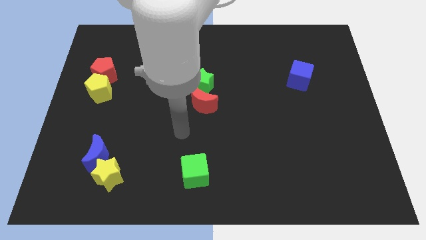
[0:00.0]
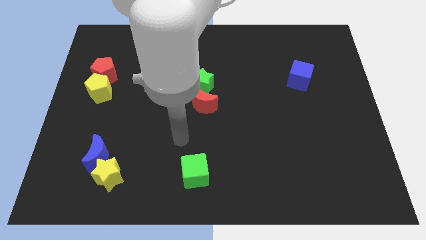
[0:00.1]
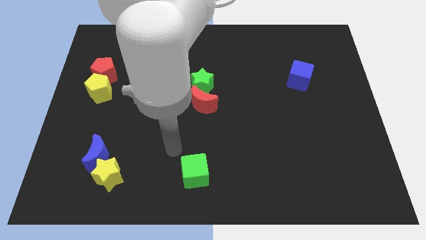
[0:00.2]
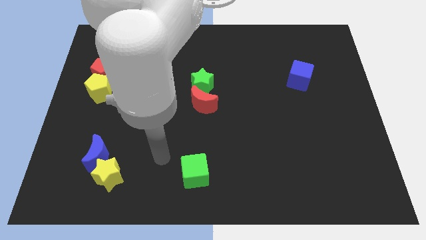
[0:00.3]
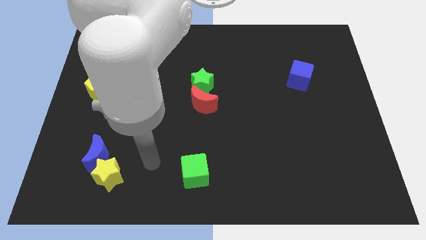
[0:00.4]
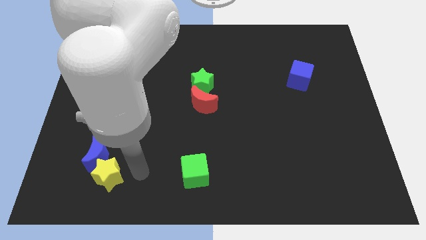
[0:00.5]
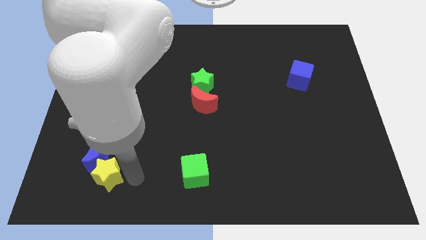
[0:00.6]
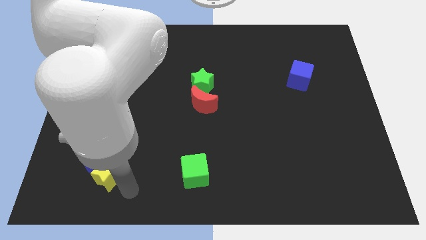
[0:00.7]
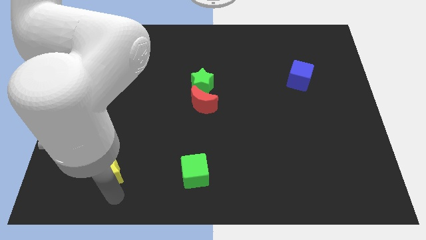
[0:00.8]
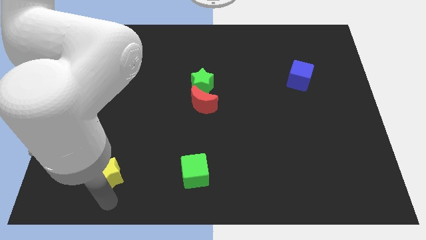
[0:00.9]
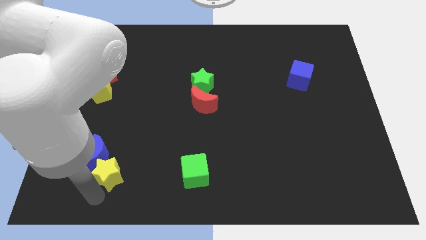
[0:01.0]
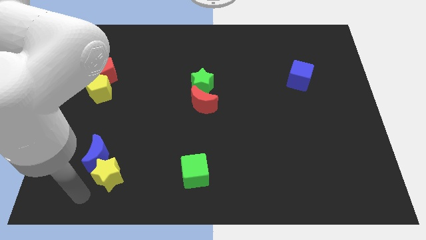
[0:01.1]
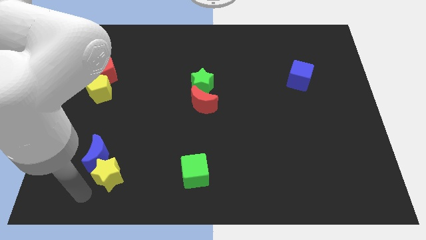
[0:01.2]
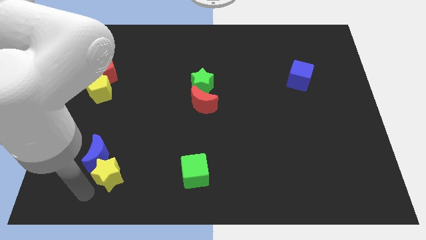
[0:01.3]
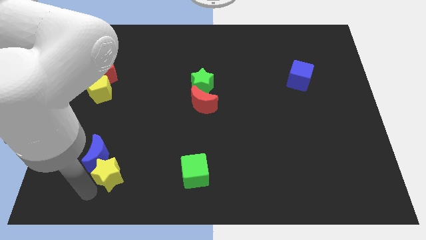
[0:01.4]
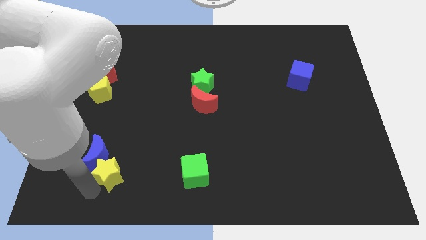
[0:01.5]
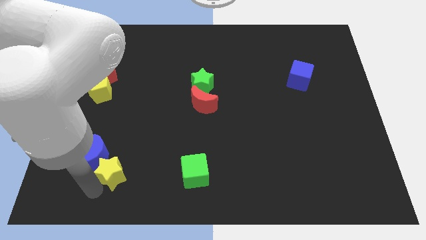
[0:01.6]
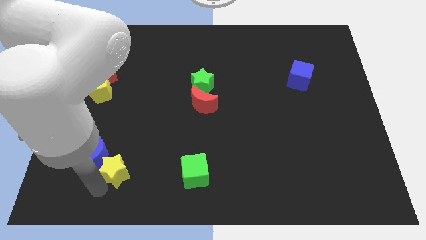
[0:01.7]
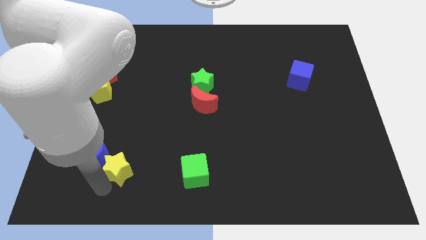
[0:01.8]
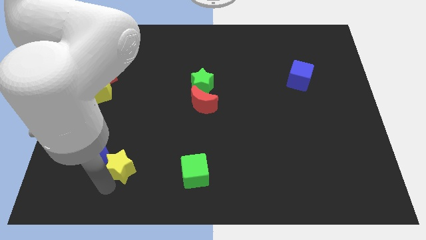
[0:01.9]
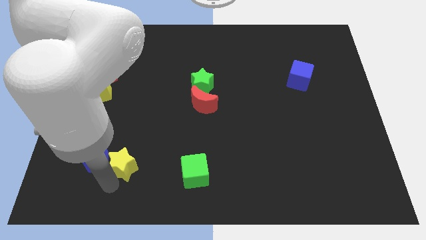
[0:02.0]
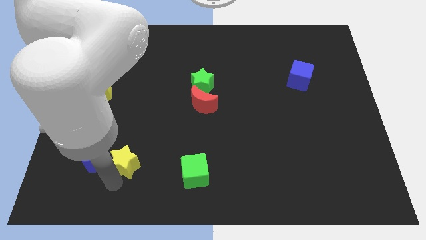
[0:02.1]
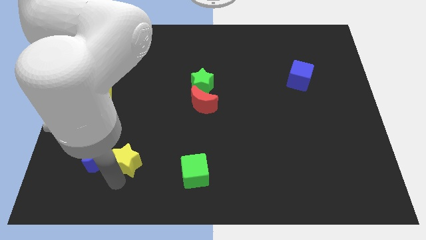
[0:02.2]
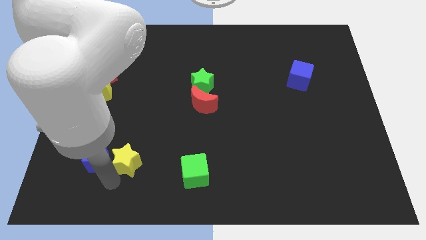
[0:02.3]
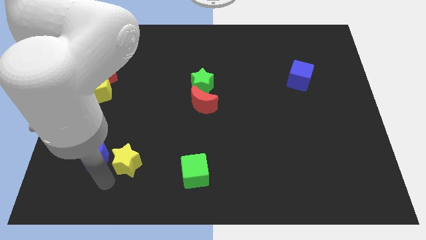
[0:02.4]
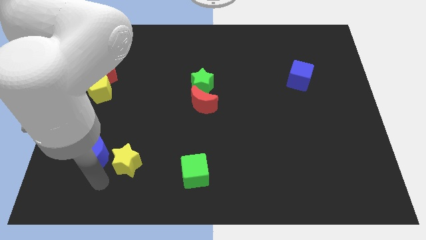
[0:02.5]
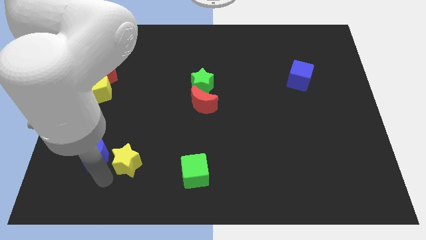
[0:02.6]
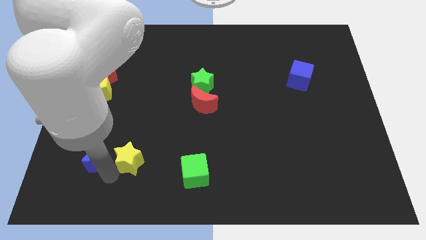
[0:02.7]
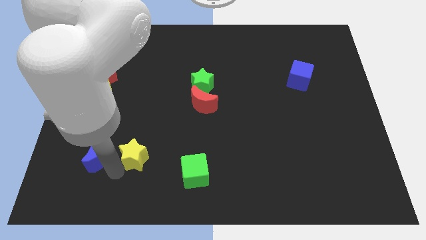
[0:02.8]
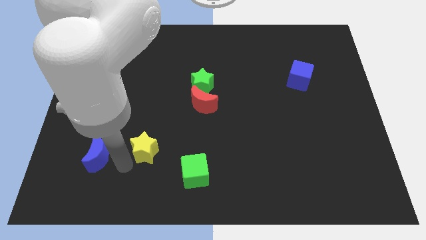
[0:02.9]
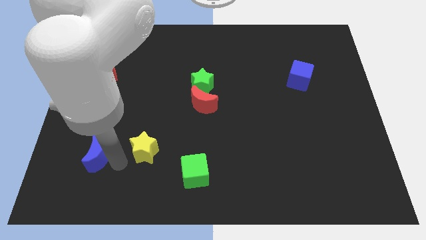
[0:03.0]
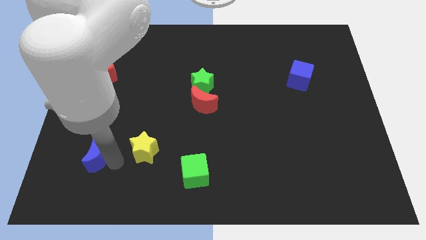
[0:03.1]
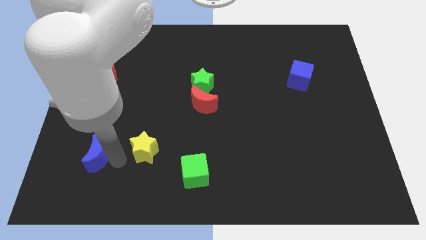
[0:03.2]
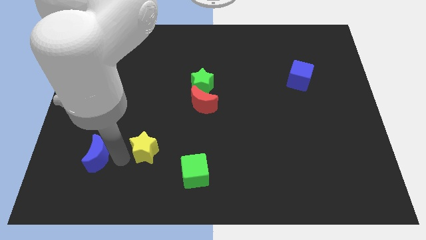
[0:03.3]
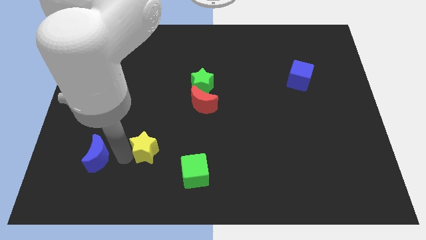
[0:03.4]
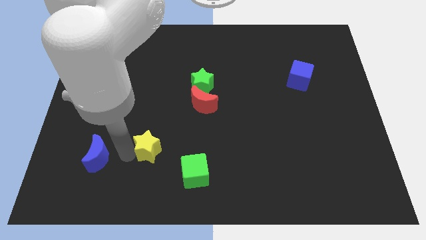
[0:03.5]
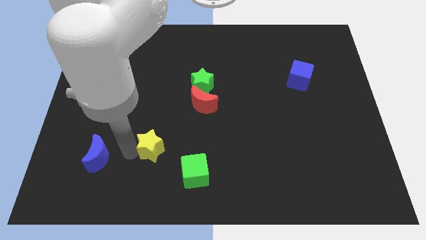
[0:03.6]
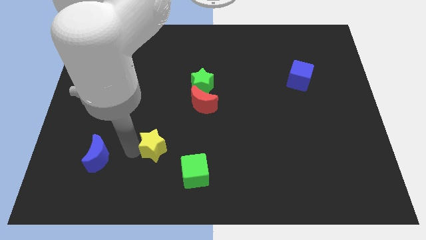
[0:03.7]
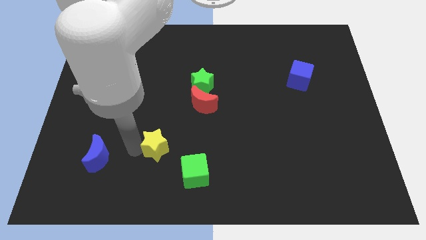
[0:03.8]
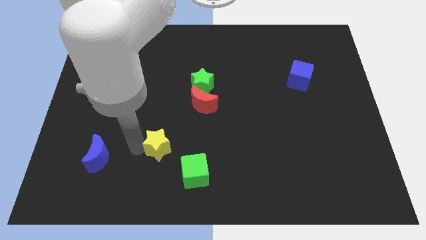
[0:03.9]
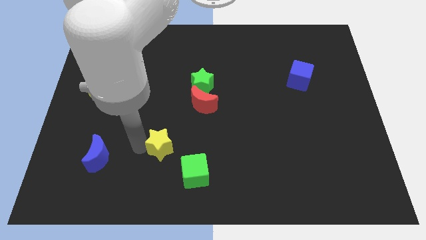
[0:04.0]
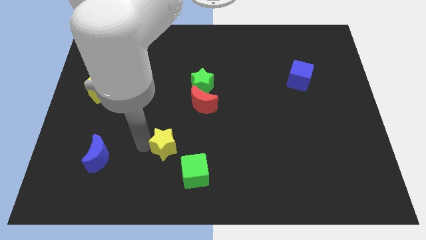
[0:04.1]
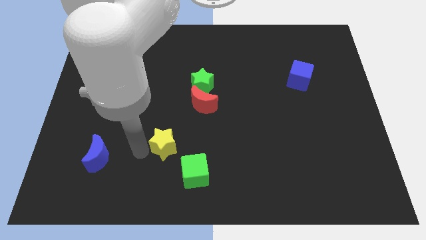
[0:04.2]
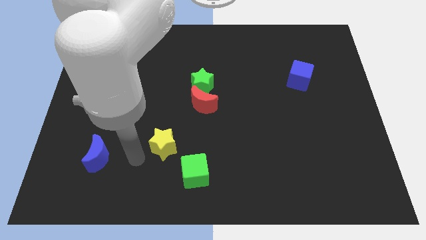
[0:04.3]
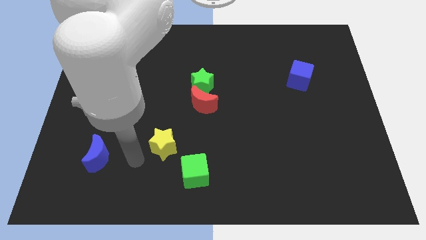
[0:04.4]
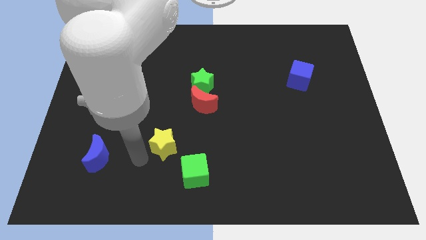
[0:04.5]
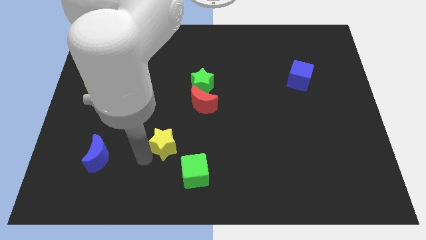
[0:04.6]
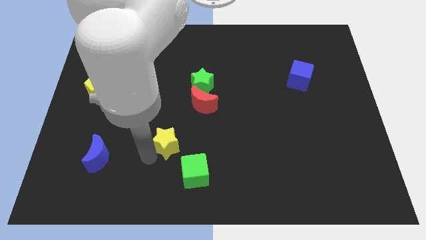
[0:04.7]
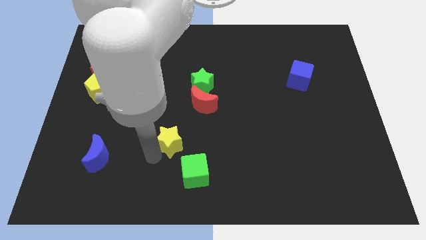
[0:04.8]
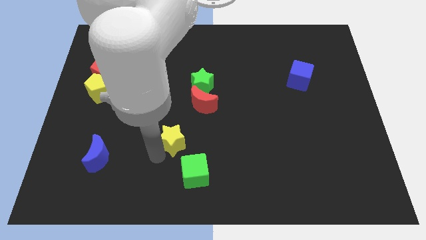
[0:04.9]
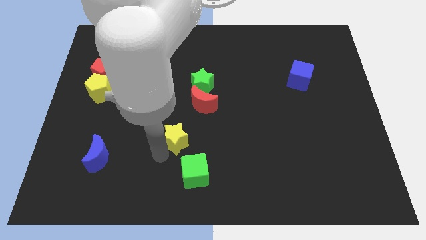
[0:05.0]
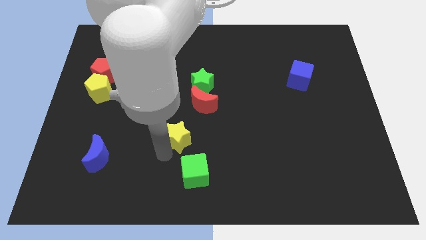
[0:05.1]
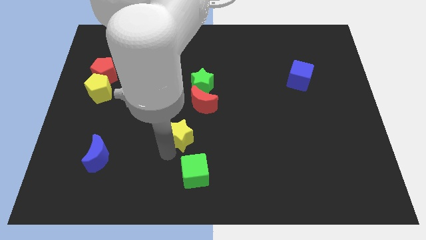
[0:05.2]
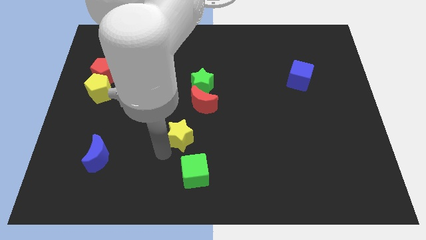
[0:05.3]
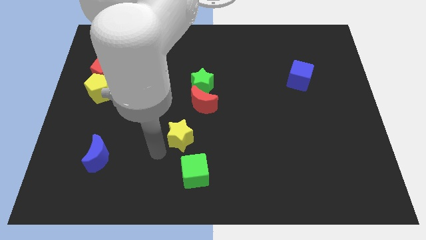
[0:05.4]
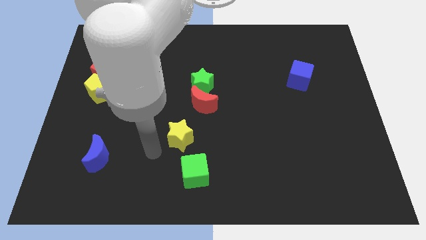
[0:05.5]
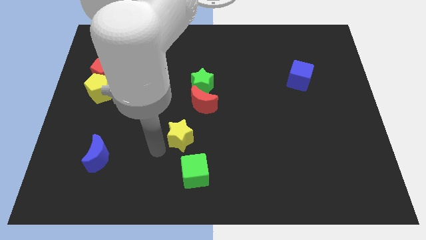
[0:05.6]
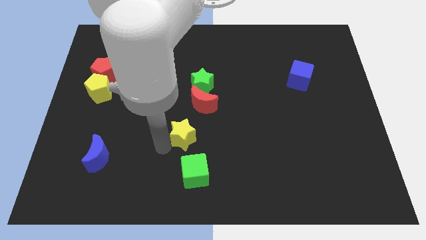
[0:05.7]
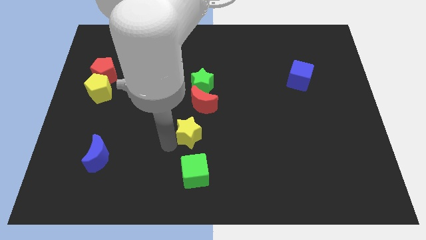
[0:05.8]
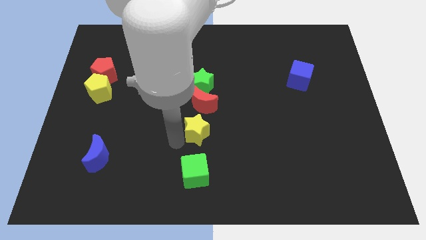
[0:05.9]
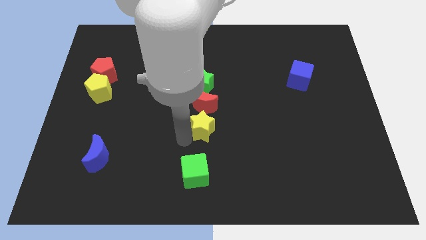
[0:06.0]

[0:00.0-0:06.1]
push the yellow star diagonally upwards and to the right

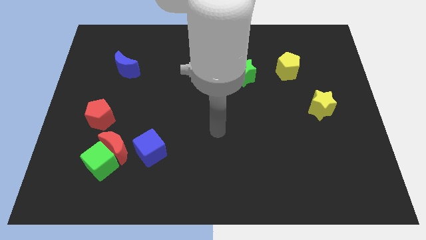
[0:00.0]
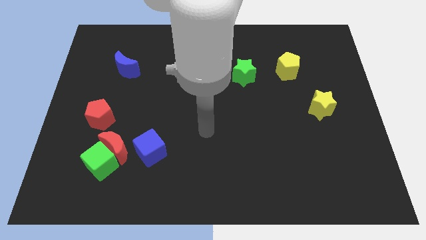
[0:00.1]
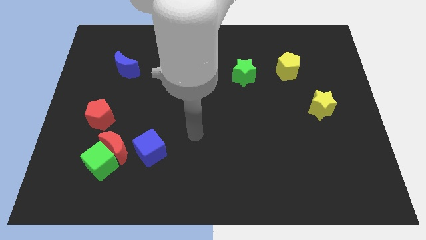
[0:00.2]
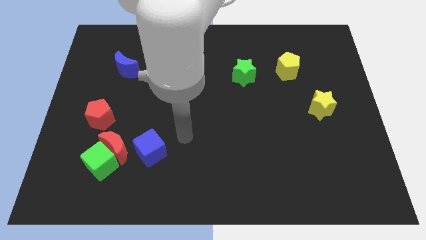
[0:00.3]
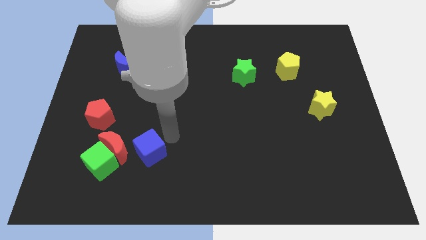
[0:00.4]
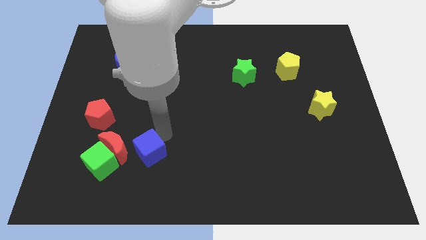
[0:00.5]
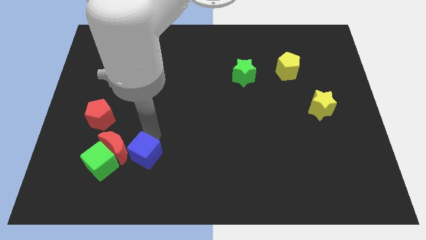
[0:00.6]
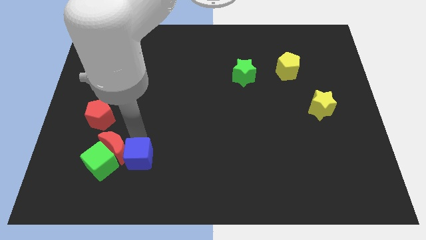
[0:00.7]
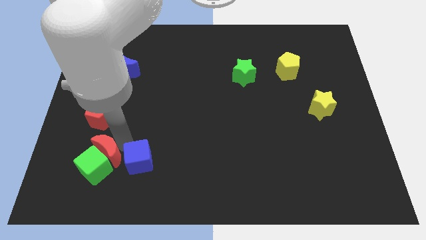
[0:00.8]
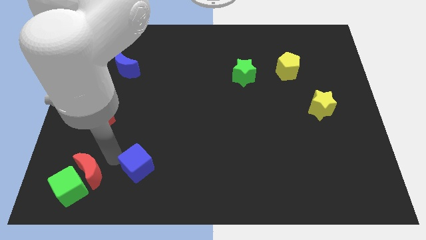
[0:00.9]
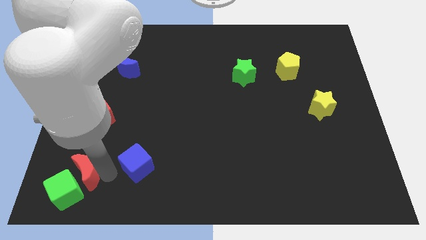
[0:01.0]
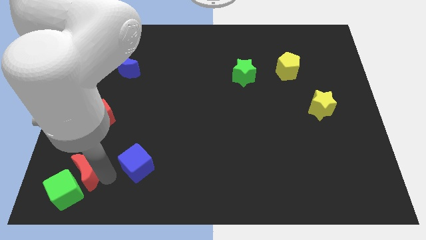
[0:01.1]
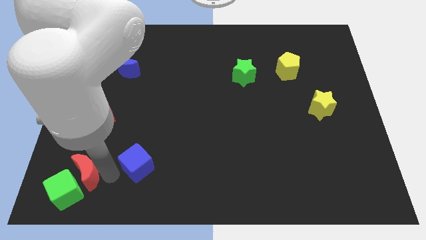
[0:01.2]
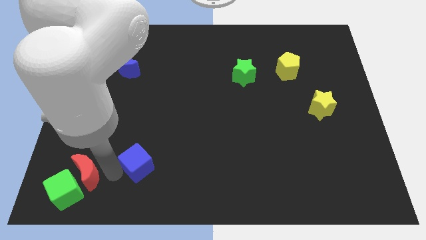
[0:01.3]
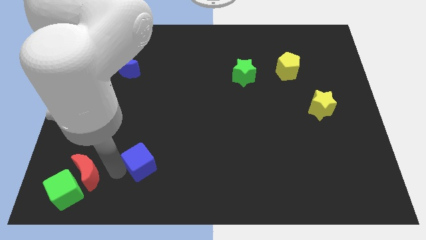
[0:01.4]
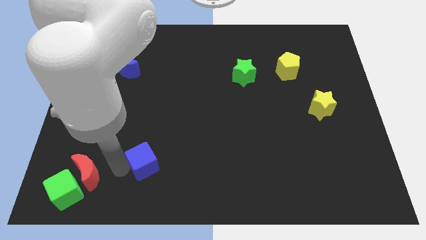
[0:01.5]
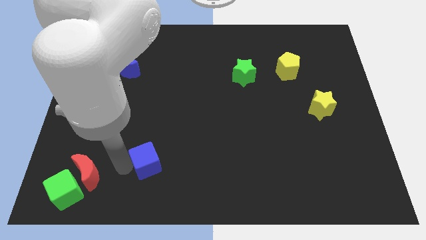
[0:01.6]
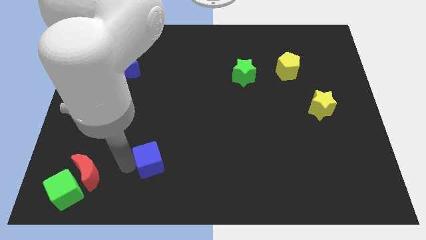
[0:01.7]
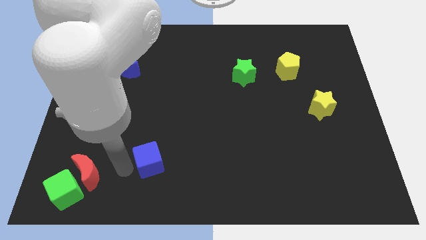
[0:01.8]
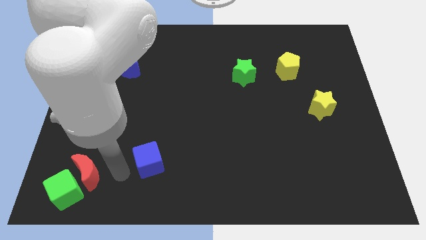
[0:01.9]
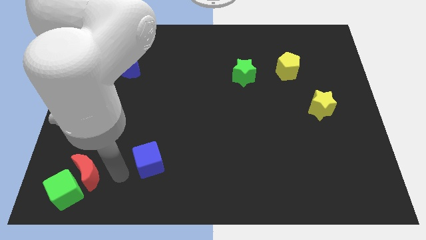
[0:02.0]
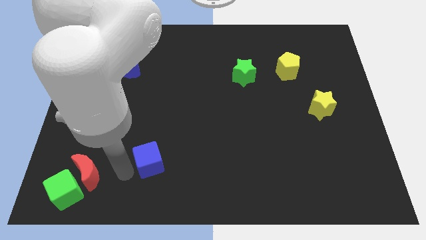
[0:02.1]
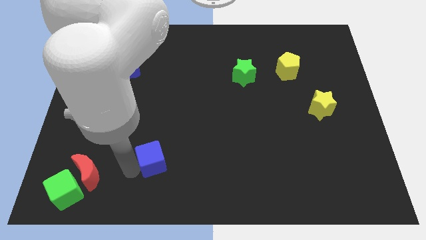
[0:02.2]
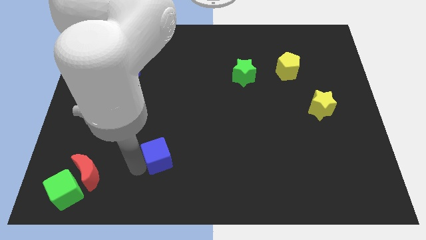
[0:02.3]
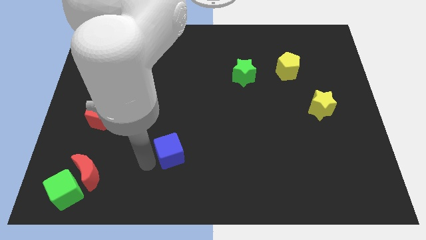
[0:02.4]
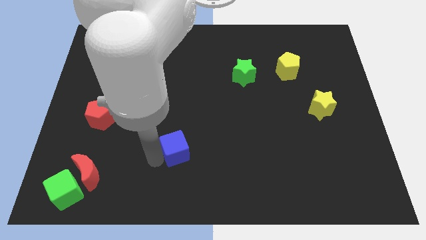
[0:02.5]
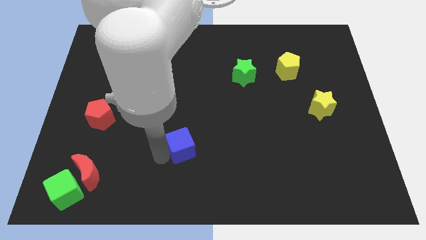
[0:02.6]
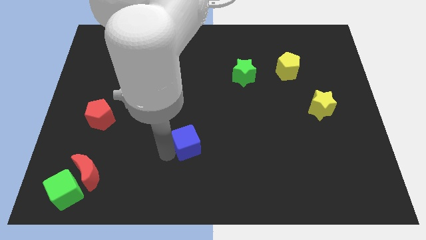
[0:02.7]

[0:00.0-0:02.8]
push the blue cube to the right a little bit
